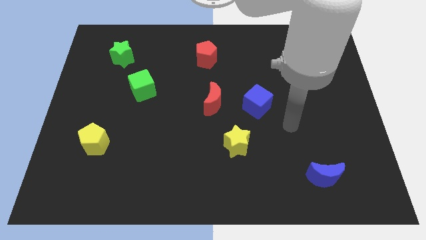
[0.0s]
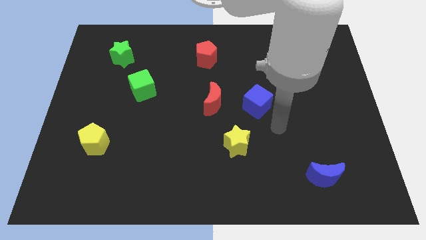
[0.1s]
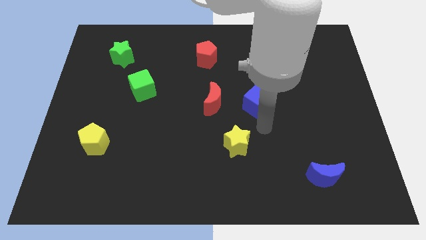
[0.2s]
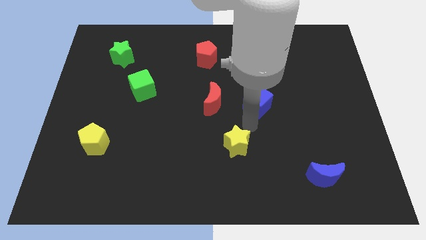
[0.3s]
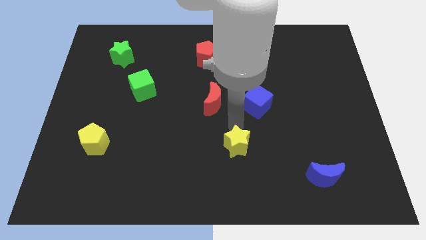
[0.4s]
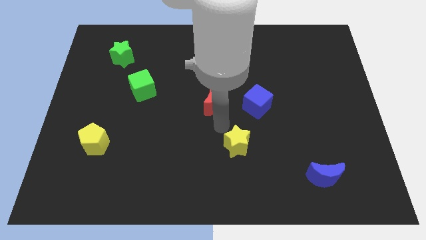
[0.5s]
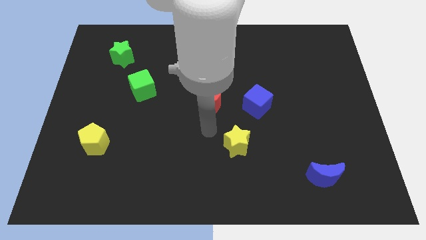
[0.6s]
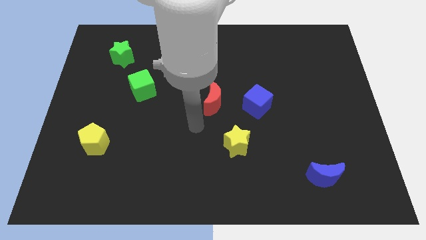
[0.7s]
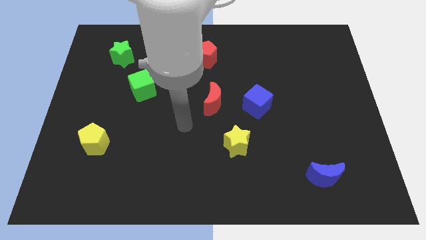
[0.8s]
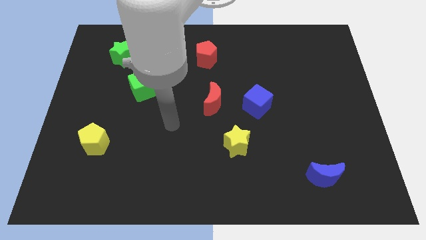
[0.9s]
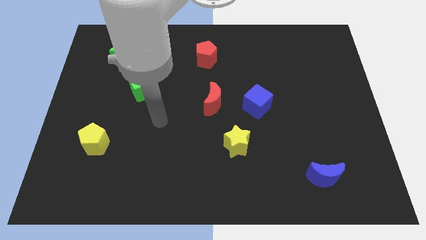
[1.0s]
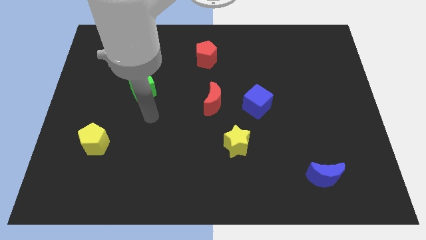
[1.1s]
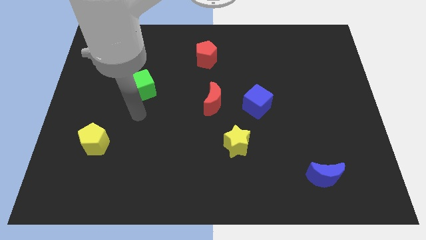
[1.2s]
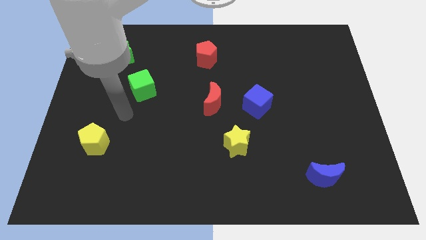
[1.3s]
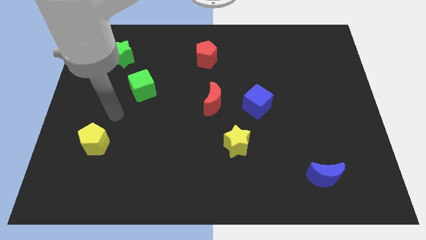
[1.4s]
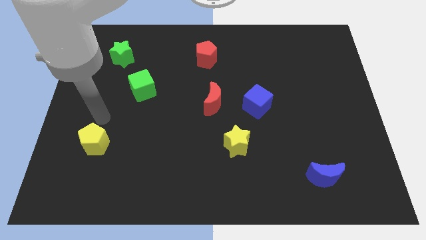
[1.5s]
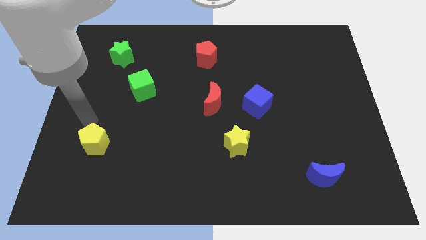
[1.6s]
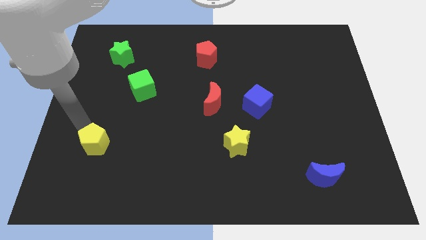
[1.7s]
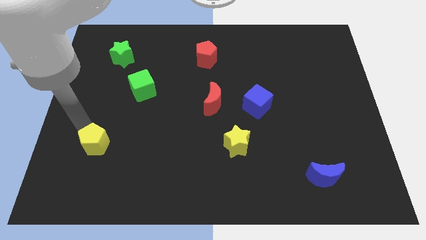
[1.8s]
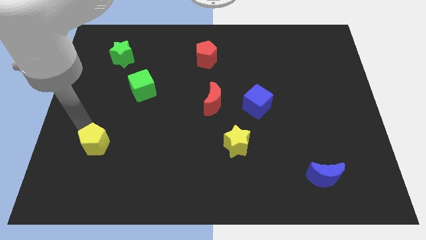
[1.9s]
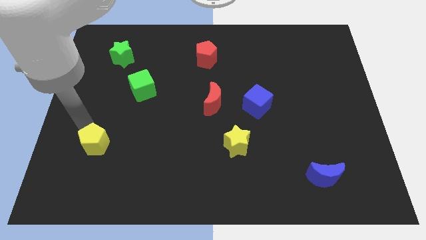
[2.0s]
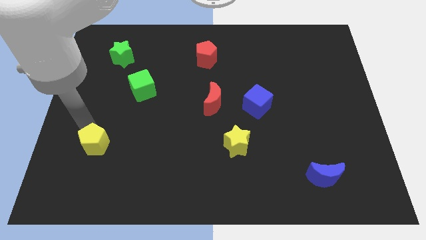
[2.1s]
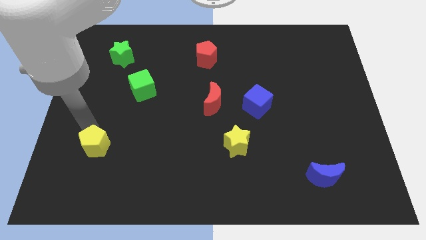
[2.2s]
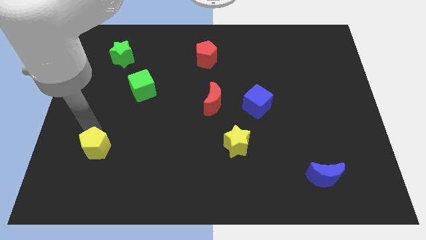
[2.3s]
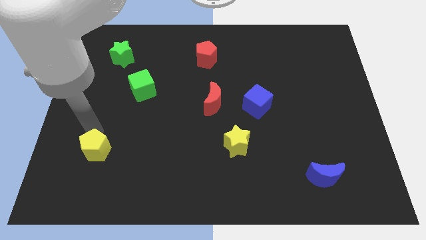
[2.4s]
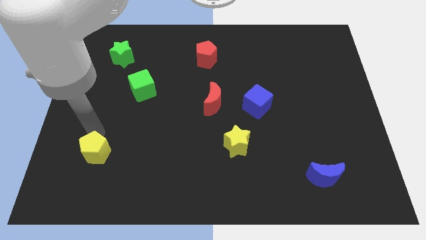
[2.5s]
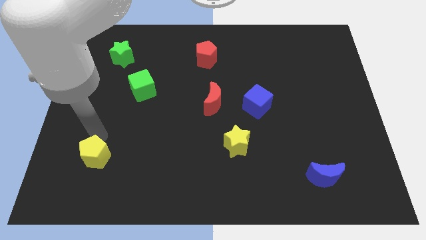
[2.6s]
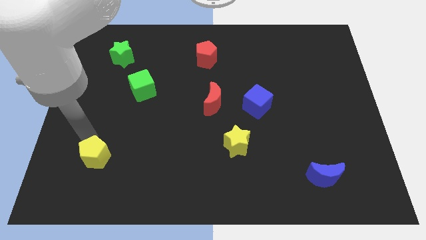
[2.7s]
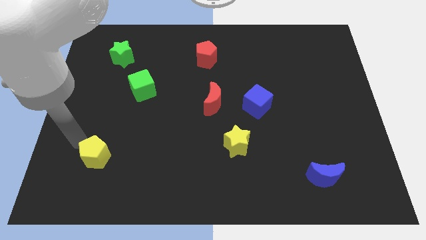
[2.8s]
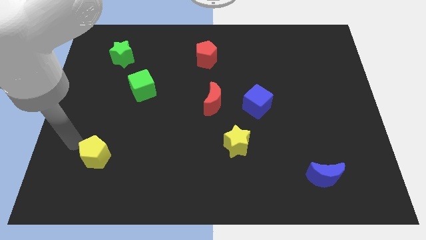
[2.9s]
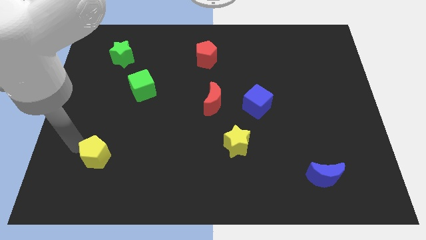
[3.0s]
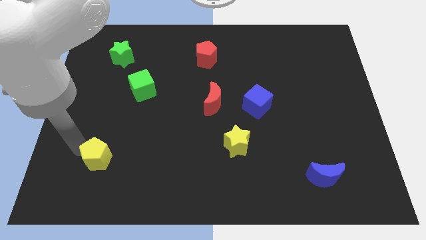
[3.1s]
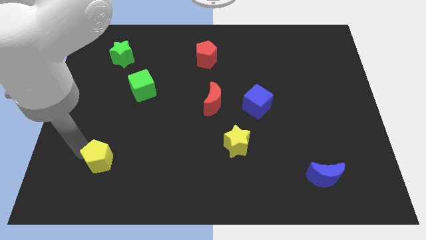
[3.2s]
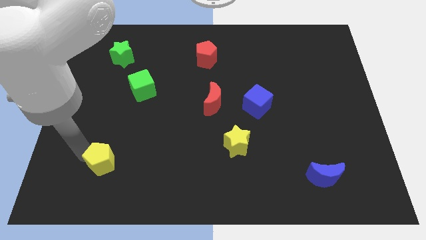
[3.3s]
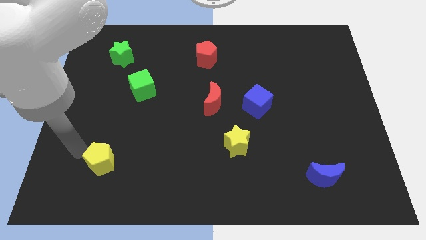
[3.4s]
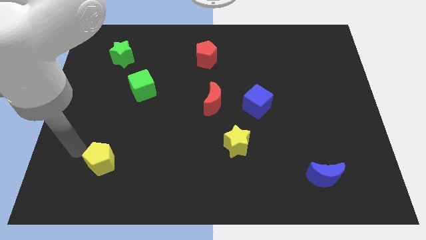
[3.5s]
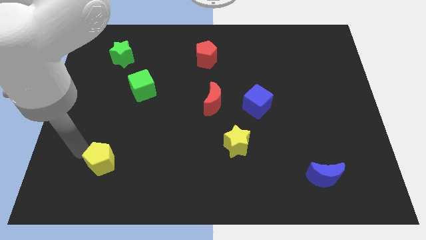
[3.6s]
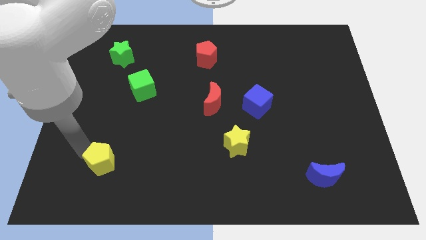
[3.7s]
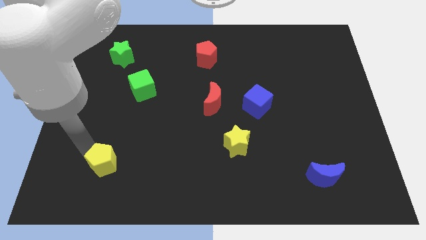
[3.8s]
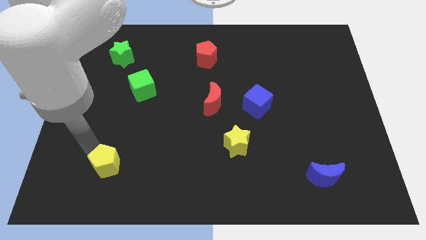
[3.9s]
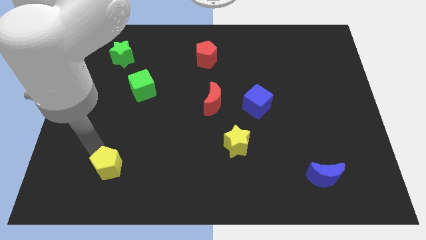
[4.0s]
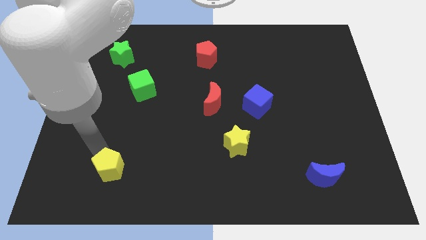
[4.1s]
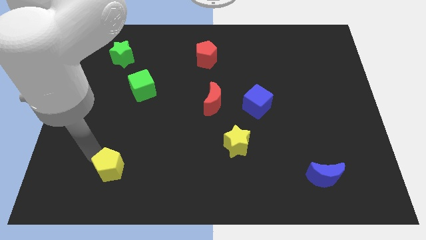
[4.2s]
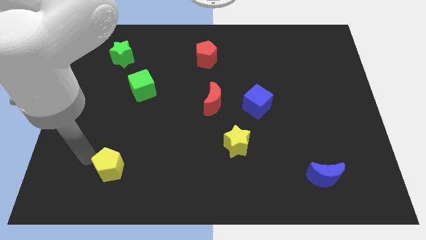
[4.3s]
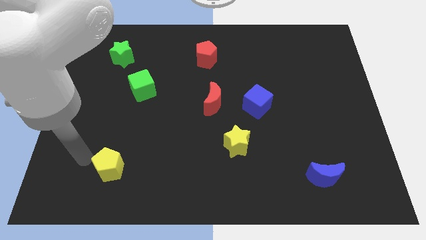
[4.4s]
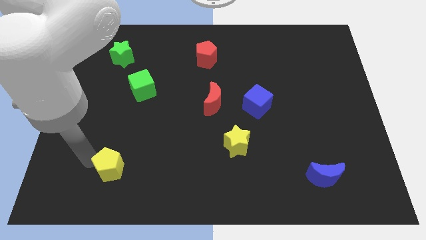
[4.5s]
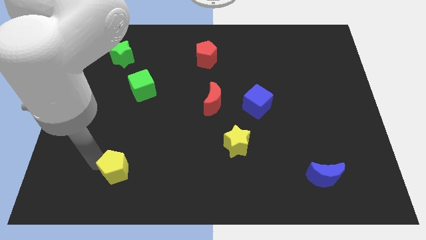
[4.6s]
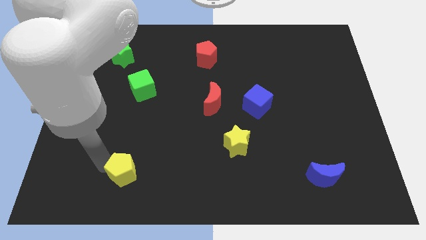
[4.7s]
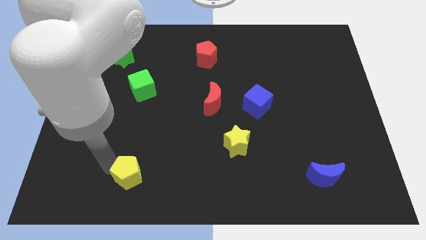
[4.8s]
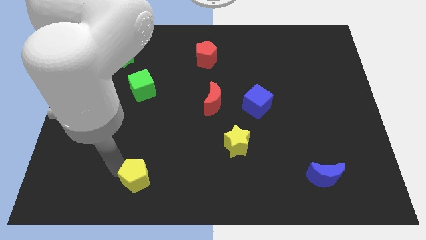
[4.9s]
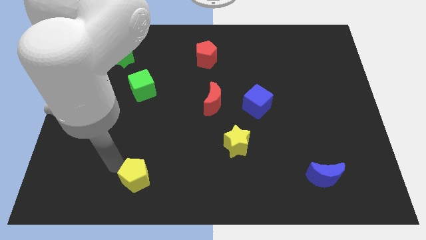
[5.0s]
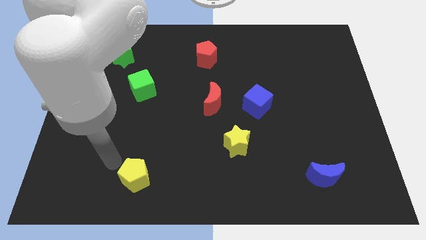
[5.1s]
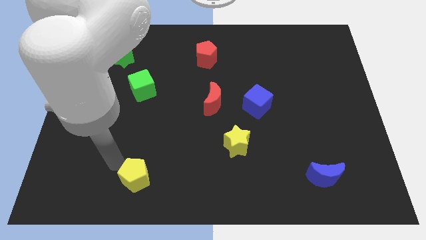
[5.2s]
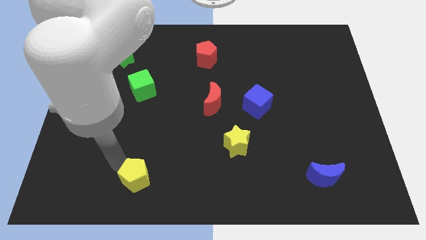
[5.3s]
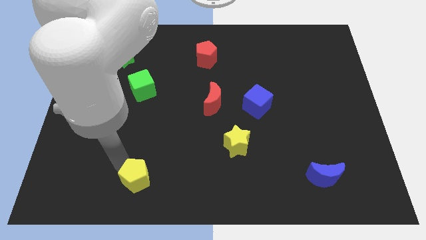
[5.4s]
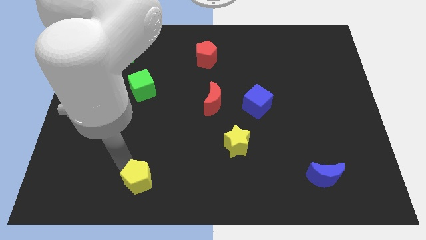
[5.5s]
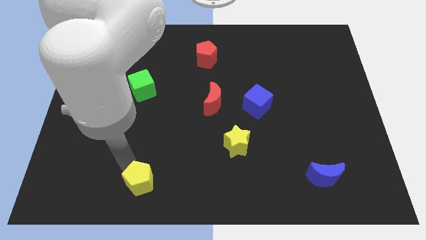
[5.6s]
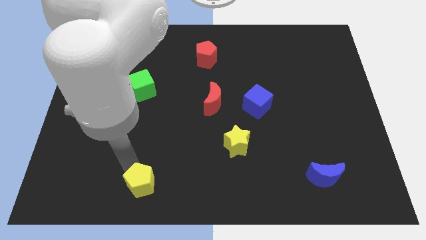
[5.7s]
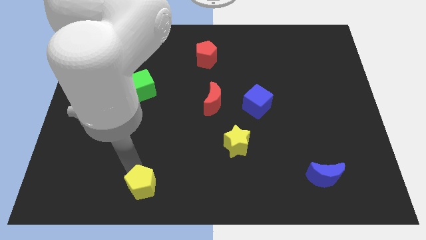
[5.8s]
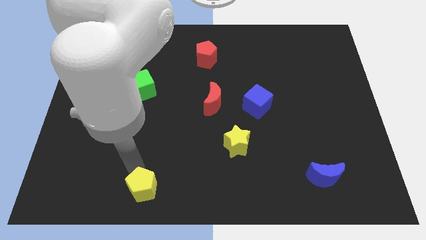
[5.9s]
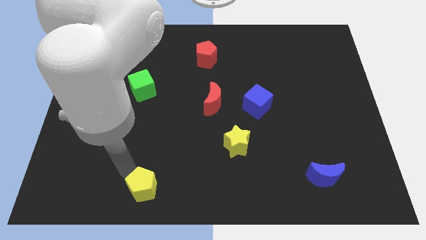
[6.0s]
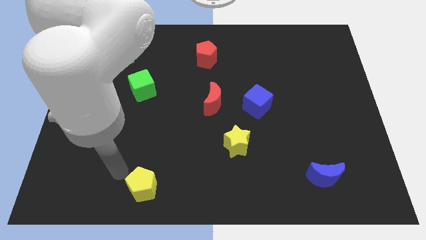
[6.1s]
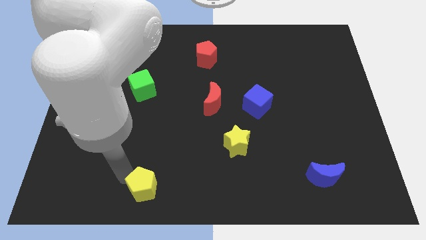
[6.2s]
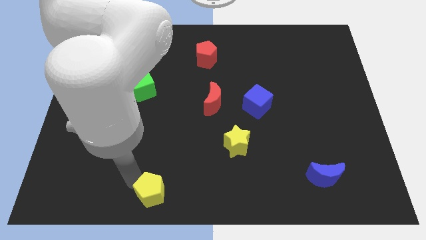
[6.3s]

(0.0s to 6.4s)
push the yellow pentagon to the bottom
